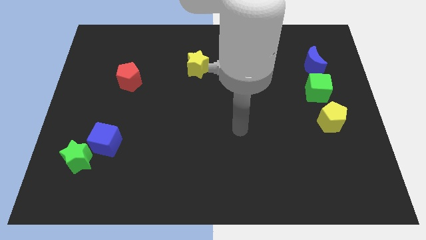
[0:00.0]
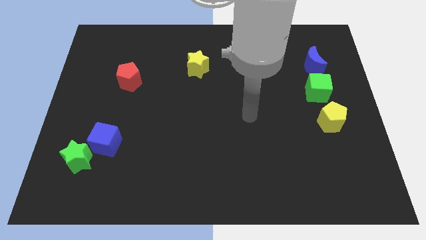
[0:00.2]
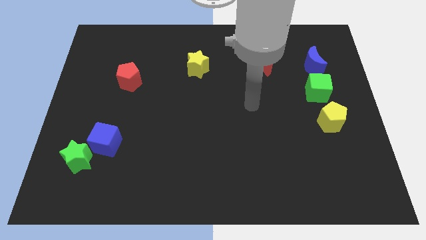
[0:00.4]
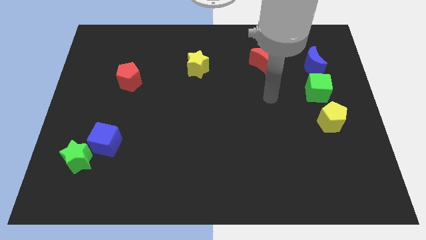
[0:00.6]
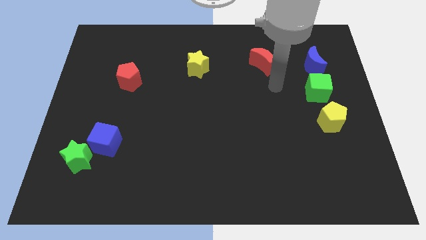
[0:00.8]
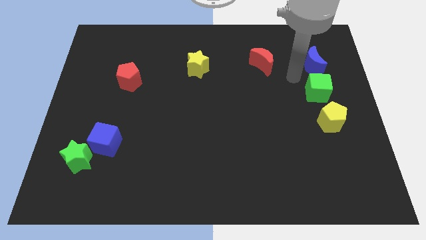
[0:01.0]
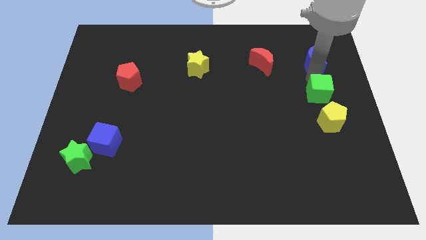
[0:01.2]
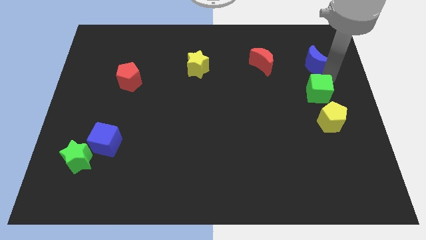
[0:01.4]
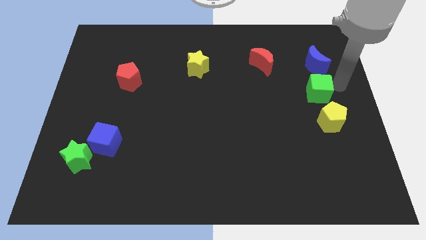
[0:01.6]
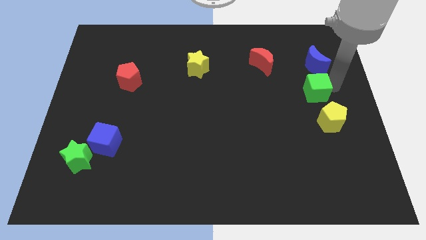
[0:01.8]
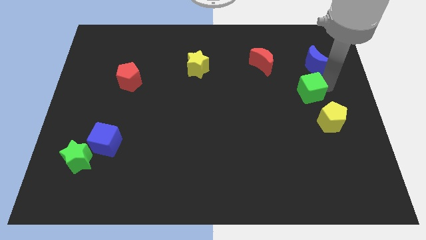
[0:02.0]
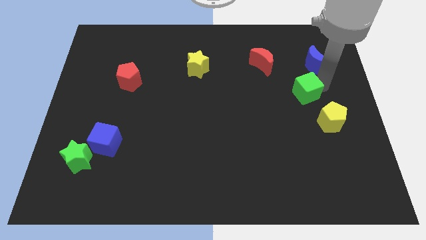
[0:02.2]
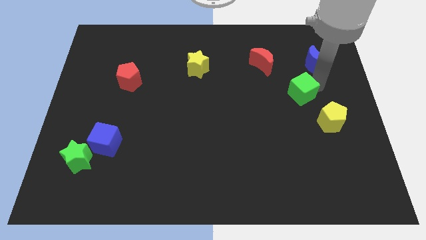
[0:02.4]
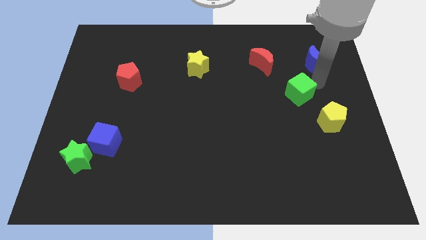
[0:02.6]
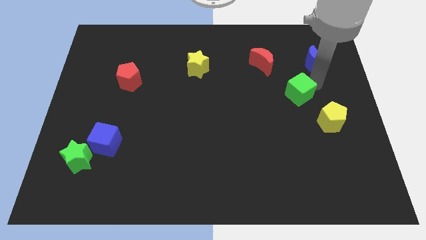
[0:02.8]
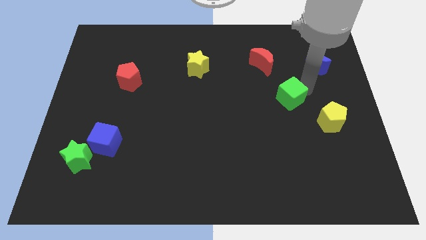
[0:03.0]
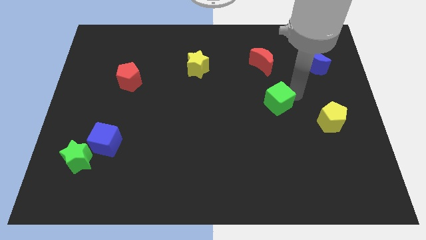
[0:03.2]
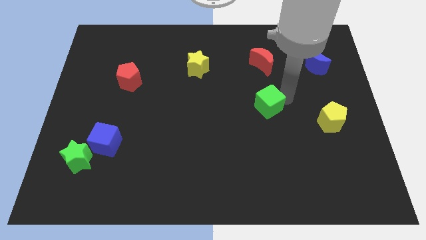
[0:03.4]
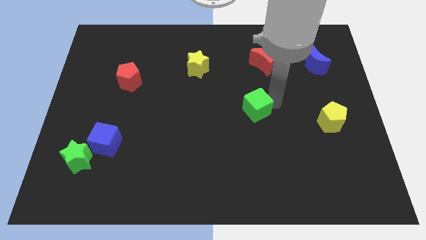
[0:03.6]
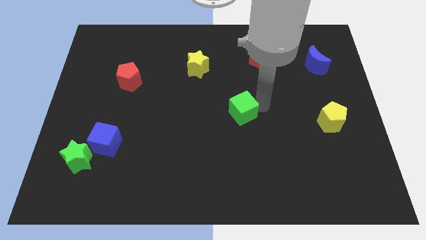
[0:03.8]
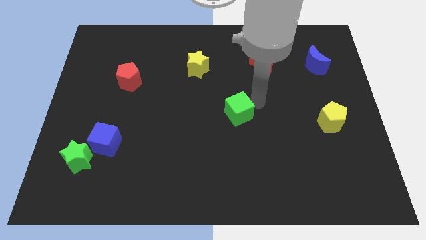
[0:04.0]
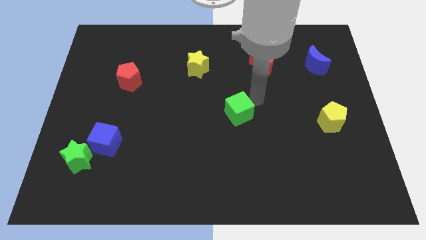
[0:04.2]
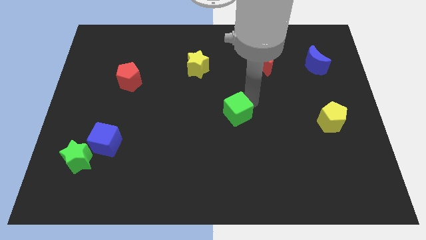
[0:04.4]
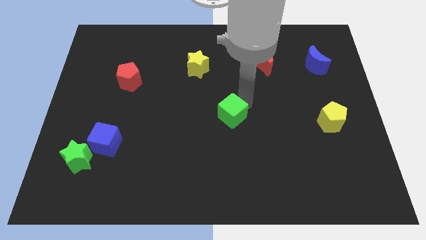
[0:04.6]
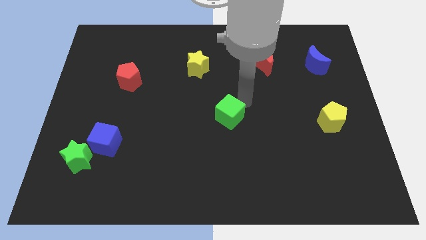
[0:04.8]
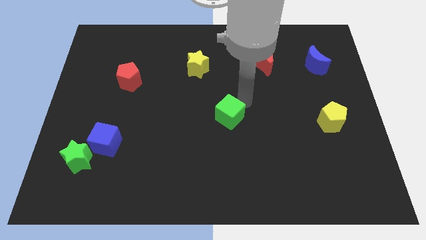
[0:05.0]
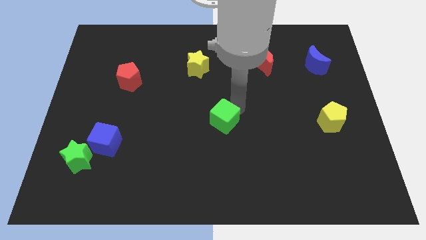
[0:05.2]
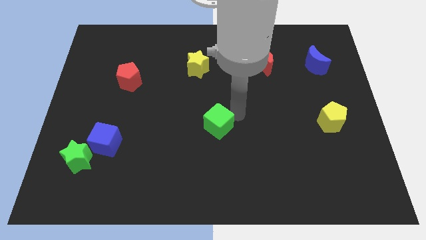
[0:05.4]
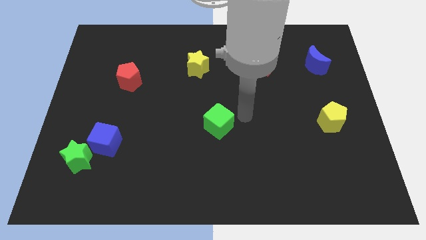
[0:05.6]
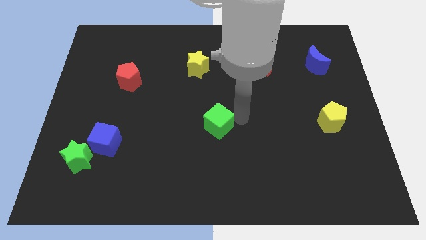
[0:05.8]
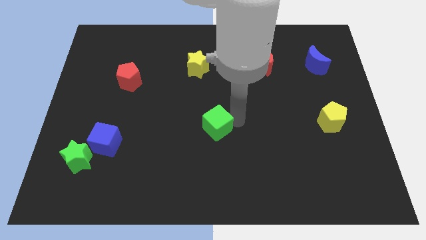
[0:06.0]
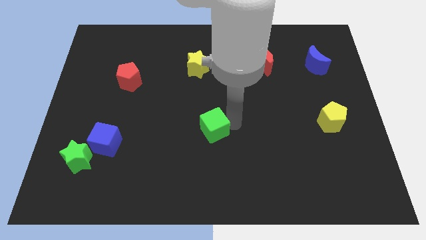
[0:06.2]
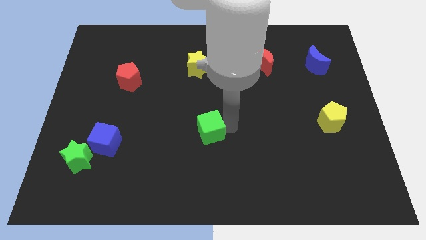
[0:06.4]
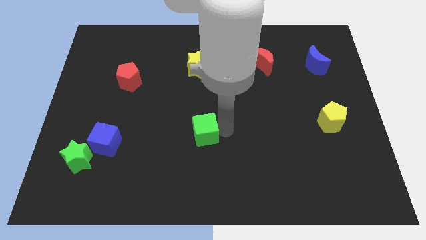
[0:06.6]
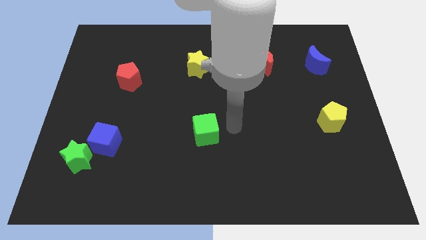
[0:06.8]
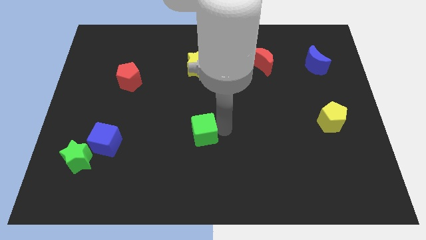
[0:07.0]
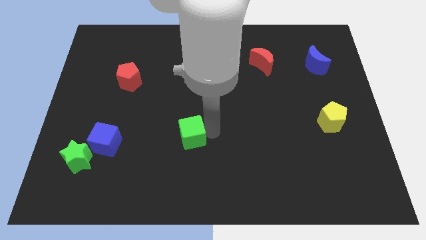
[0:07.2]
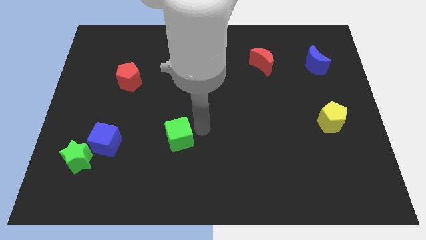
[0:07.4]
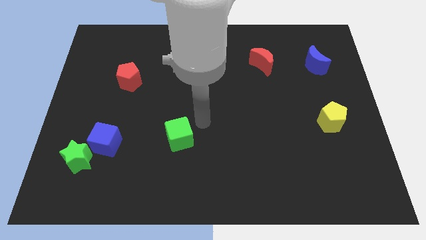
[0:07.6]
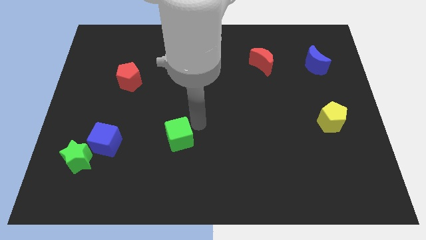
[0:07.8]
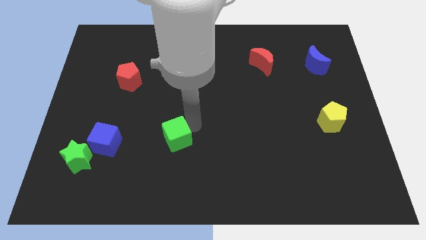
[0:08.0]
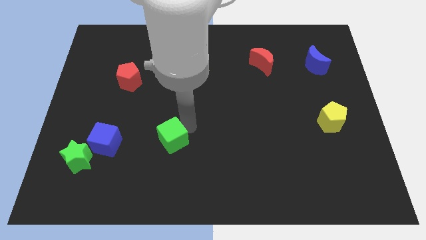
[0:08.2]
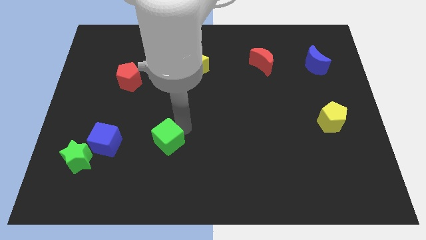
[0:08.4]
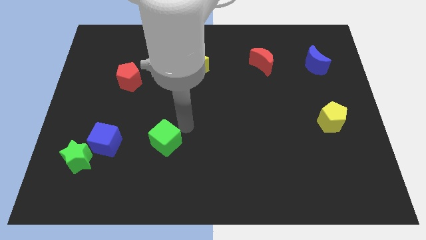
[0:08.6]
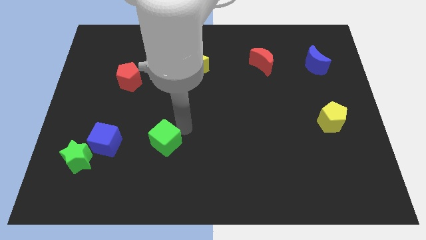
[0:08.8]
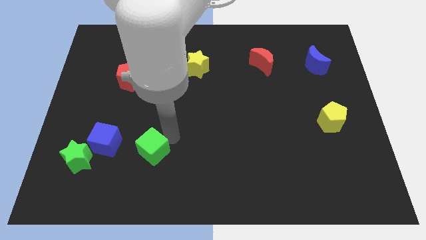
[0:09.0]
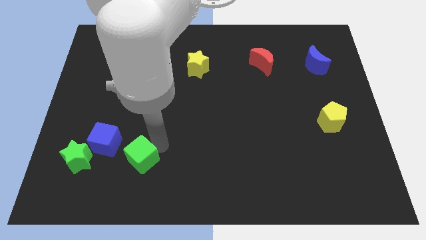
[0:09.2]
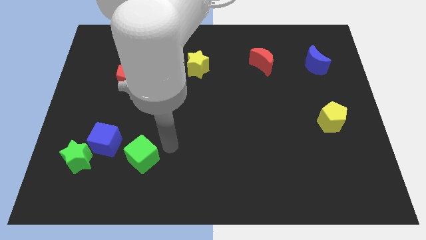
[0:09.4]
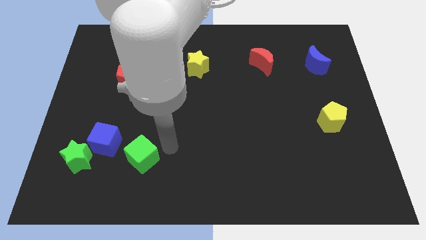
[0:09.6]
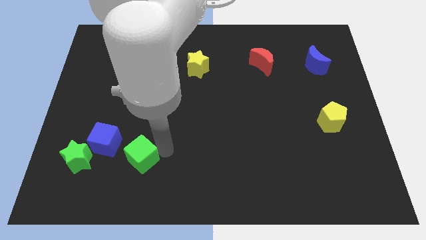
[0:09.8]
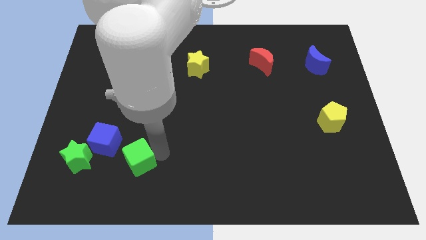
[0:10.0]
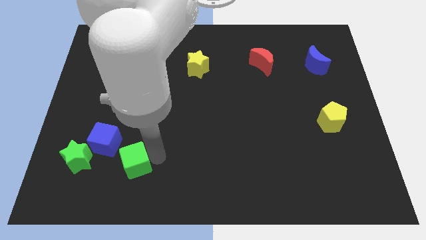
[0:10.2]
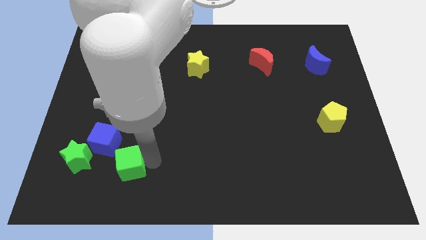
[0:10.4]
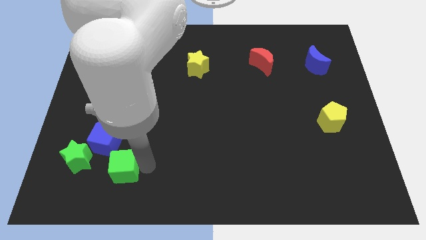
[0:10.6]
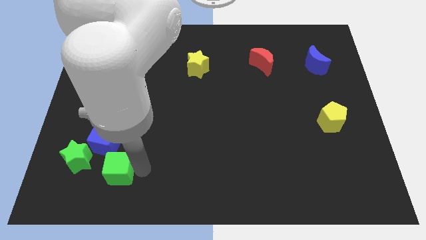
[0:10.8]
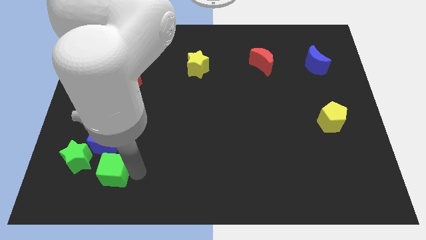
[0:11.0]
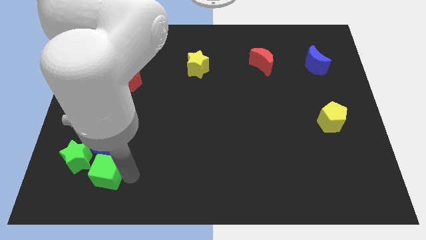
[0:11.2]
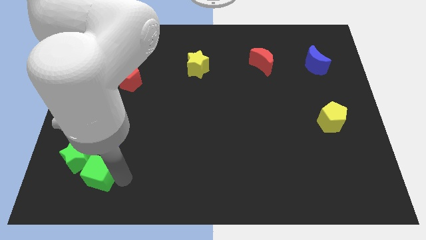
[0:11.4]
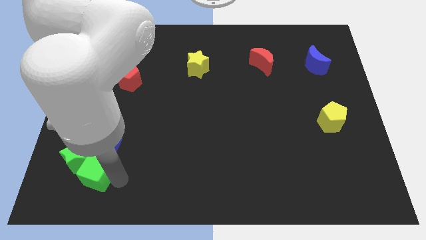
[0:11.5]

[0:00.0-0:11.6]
push the green cube next to the green star

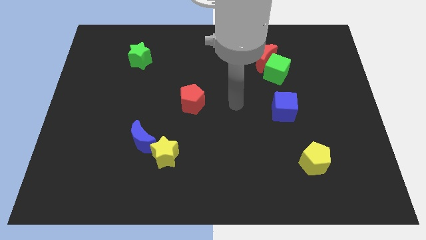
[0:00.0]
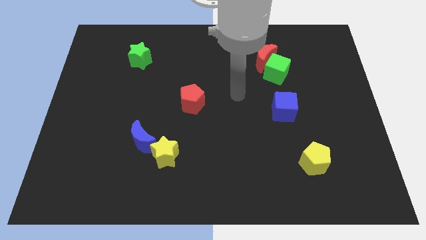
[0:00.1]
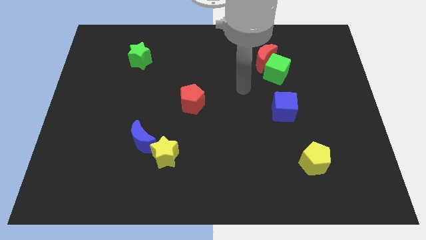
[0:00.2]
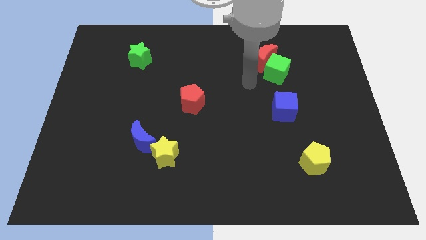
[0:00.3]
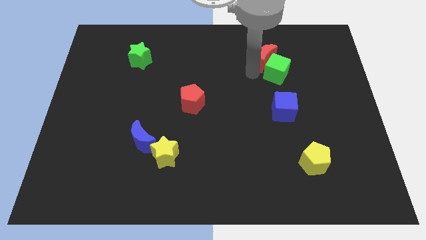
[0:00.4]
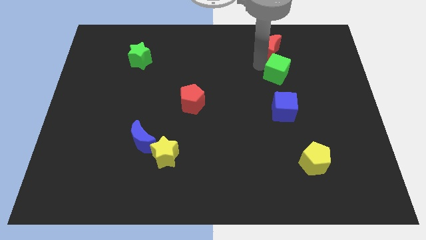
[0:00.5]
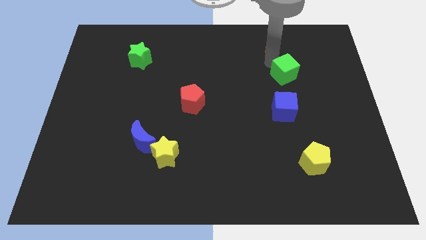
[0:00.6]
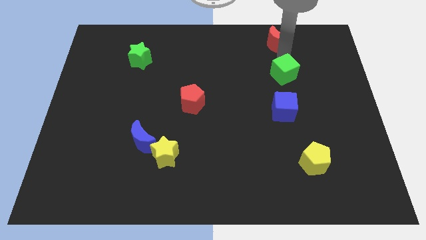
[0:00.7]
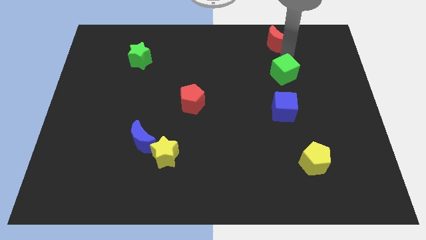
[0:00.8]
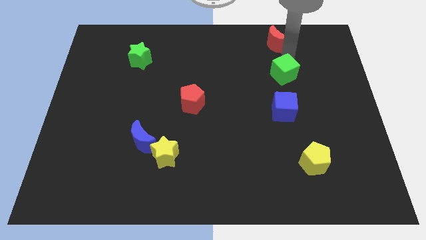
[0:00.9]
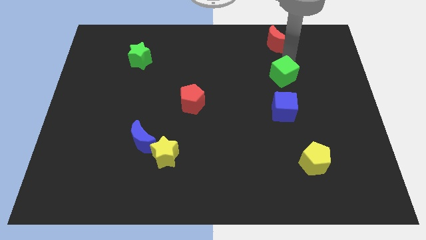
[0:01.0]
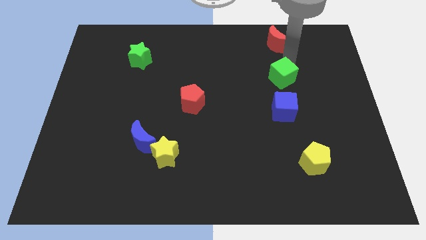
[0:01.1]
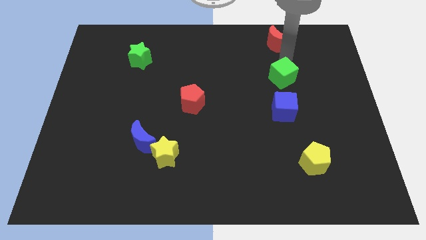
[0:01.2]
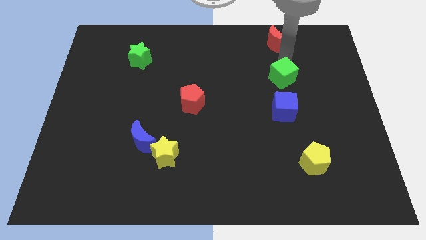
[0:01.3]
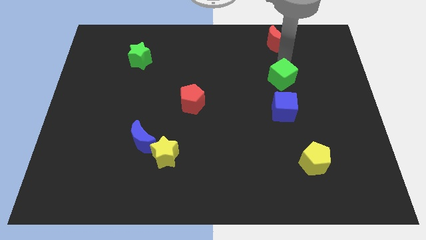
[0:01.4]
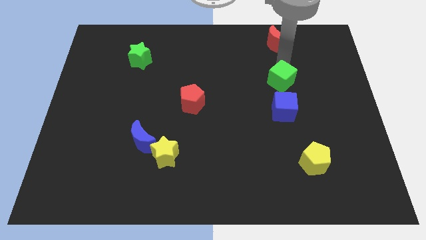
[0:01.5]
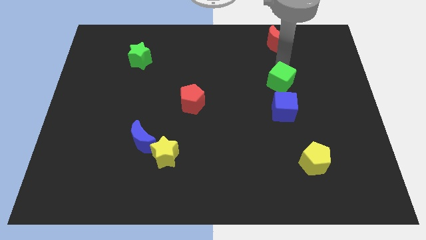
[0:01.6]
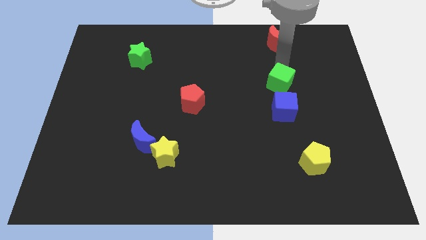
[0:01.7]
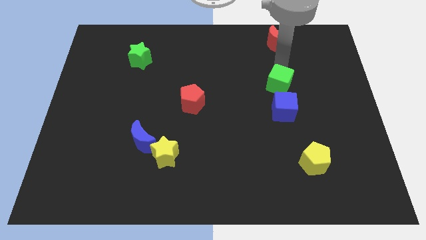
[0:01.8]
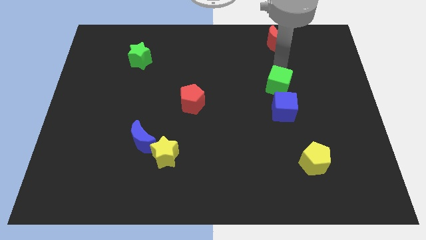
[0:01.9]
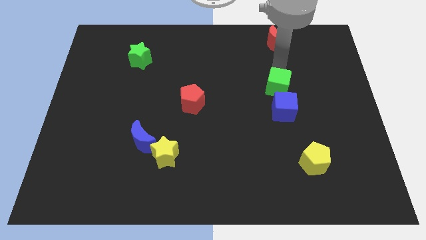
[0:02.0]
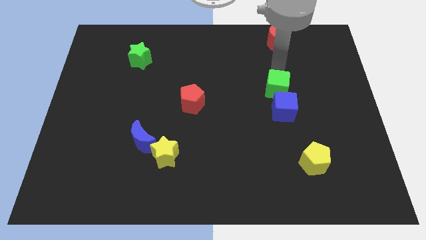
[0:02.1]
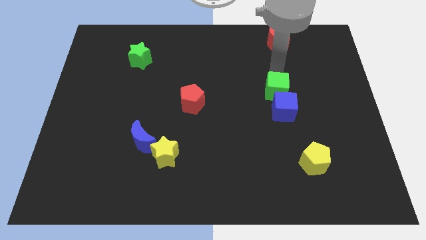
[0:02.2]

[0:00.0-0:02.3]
slide the green cube towards the blue cube
